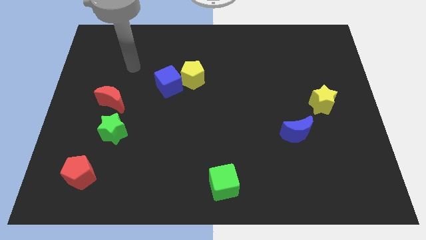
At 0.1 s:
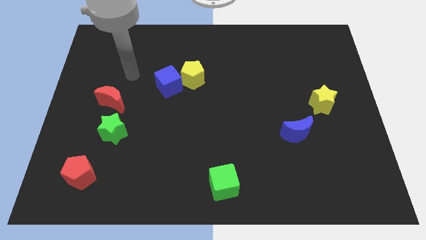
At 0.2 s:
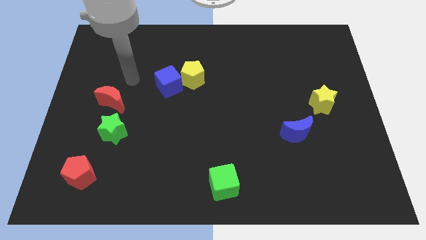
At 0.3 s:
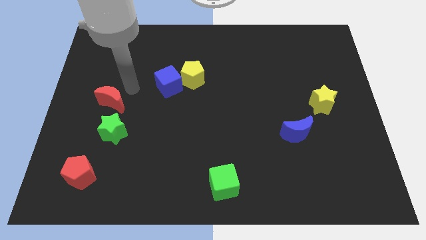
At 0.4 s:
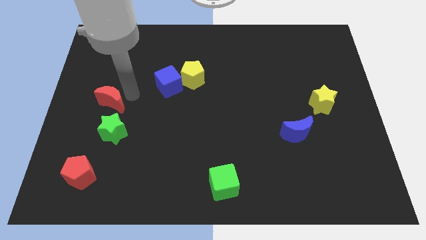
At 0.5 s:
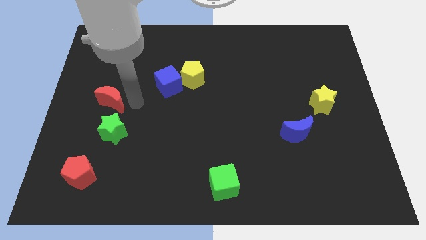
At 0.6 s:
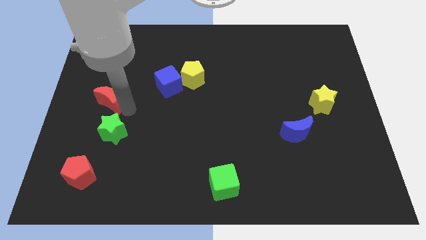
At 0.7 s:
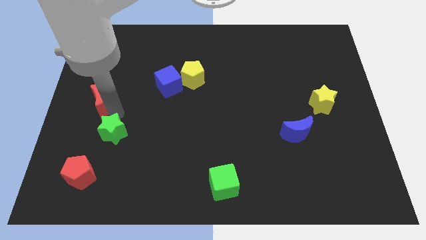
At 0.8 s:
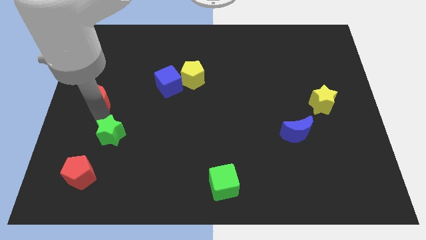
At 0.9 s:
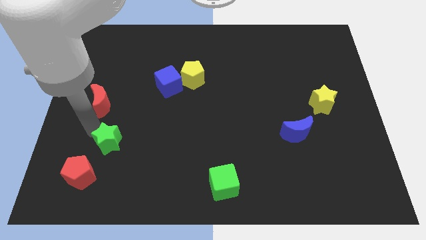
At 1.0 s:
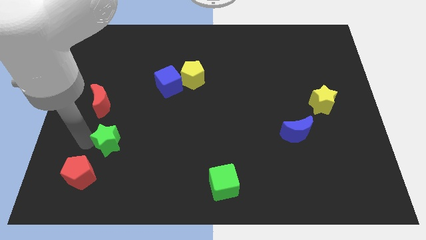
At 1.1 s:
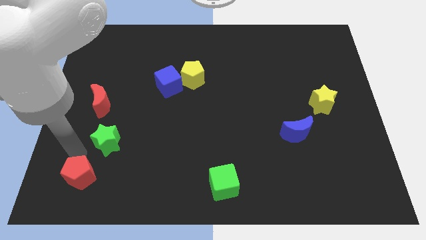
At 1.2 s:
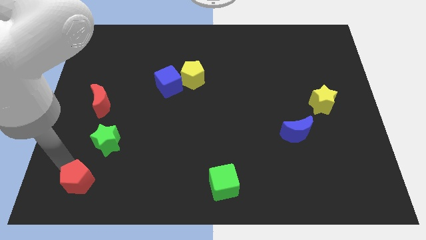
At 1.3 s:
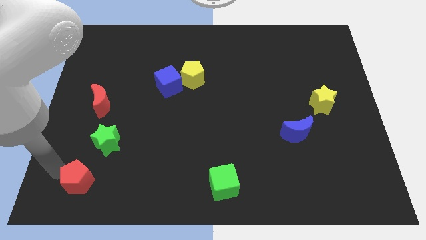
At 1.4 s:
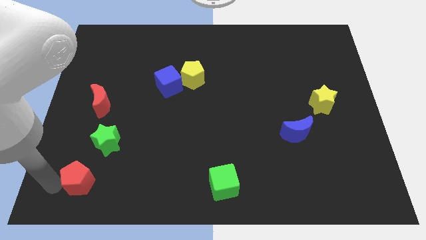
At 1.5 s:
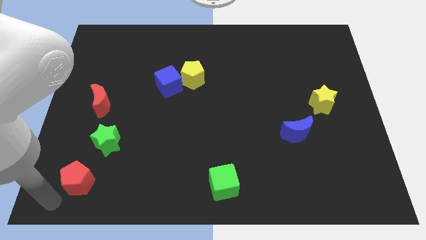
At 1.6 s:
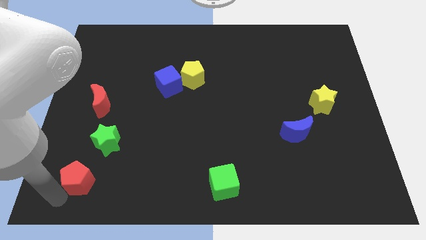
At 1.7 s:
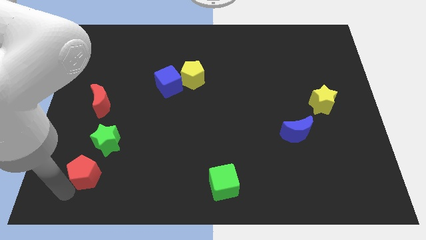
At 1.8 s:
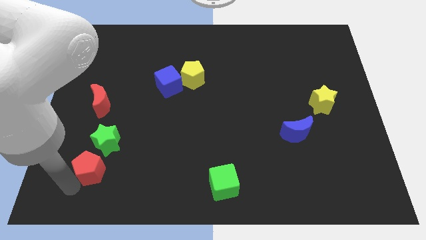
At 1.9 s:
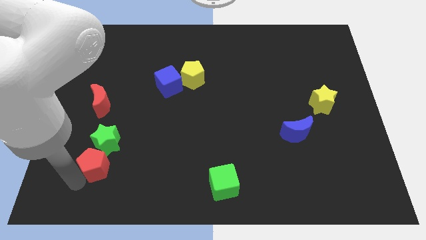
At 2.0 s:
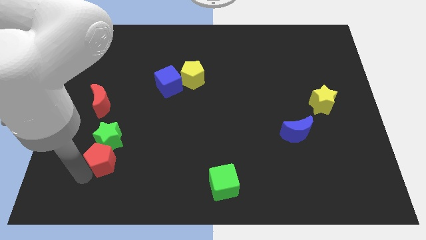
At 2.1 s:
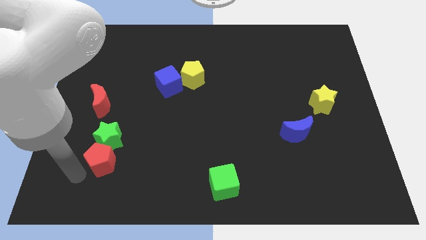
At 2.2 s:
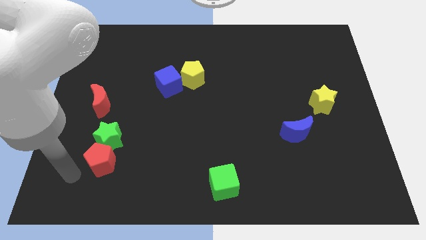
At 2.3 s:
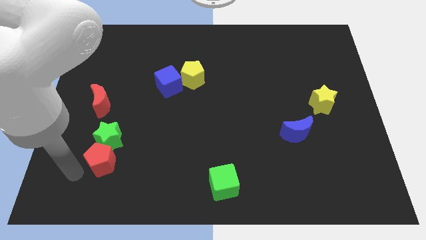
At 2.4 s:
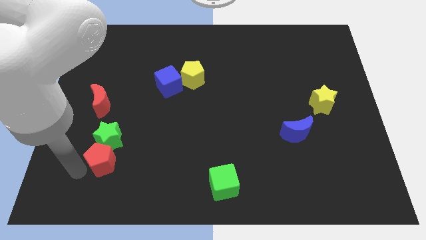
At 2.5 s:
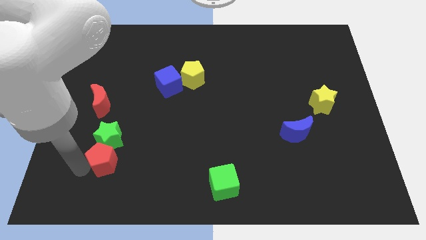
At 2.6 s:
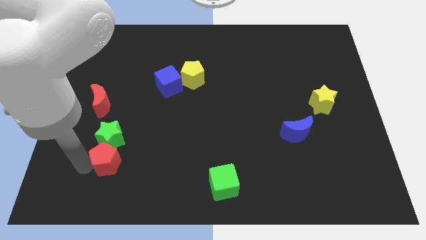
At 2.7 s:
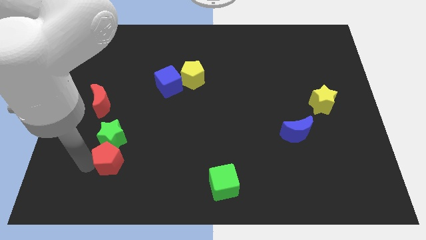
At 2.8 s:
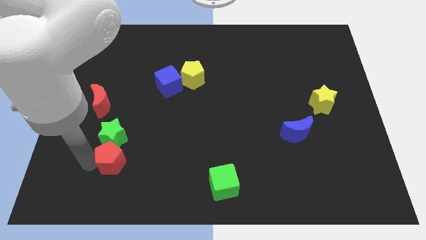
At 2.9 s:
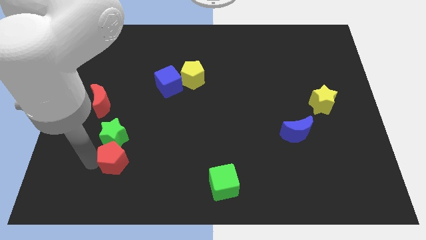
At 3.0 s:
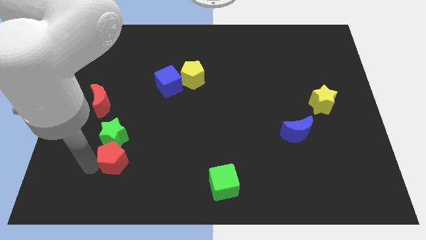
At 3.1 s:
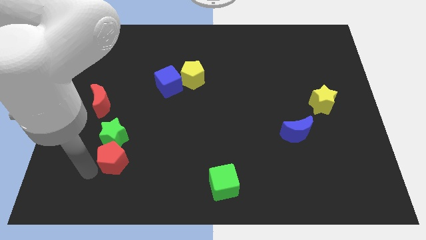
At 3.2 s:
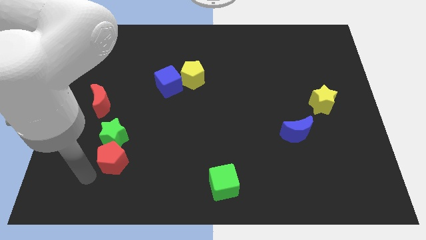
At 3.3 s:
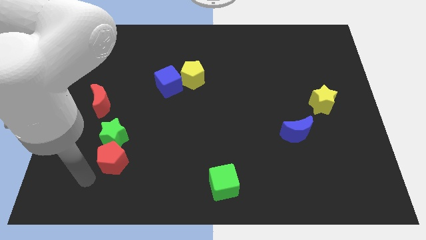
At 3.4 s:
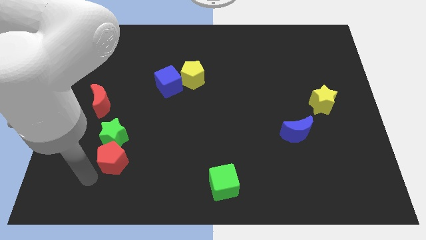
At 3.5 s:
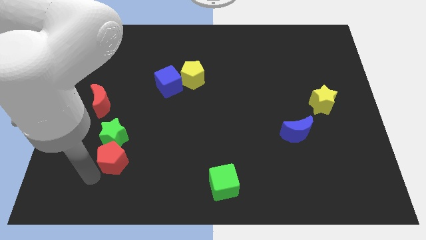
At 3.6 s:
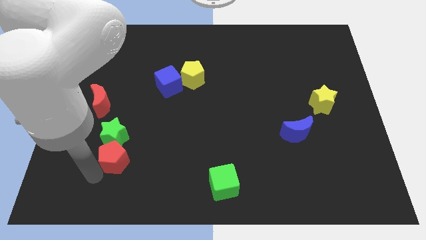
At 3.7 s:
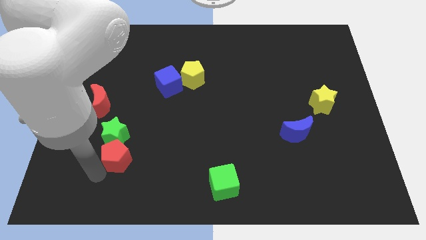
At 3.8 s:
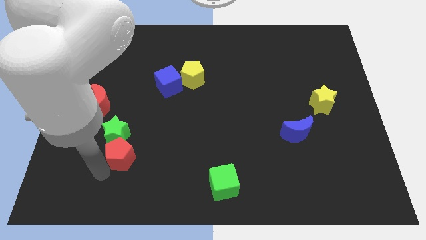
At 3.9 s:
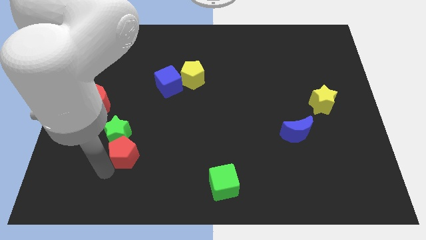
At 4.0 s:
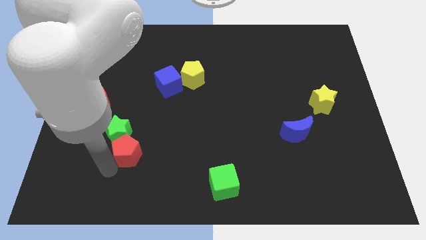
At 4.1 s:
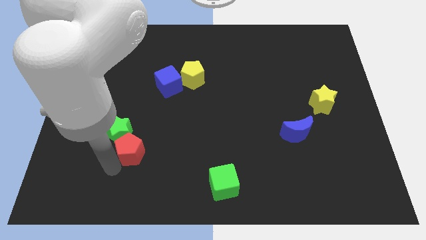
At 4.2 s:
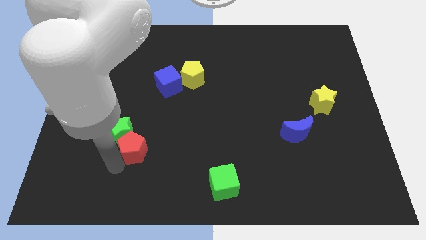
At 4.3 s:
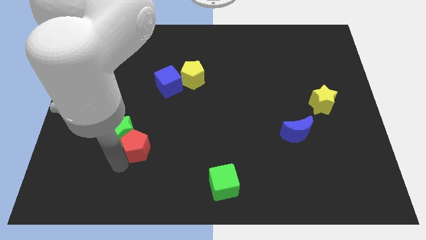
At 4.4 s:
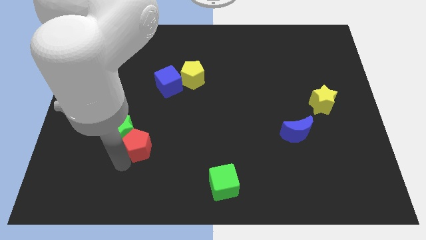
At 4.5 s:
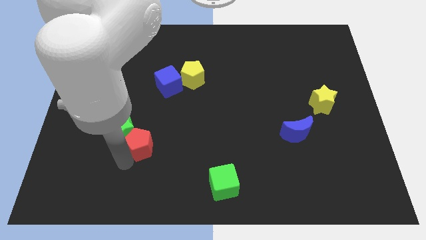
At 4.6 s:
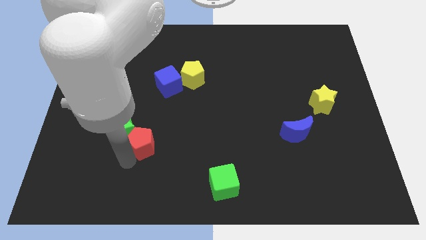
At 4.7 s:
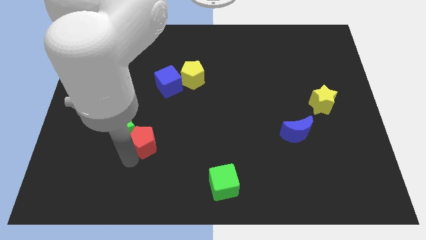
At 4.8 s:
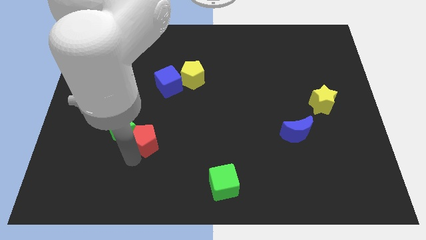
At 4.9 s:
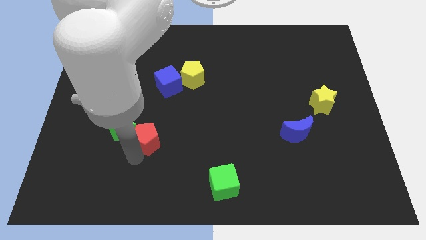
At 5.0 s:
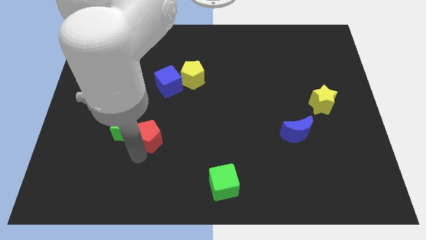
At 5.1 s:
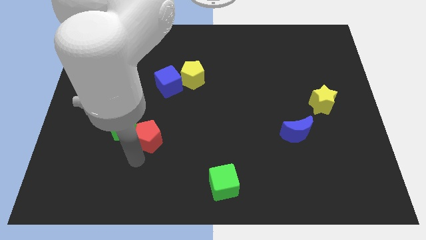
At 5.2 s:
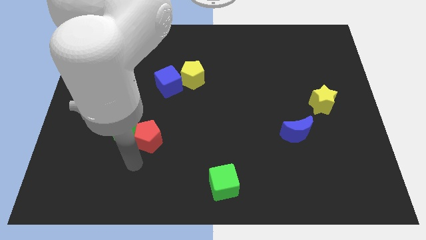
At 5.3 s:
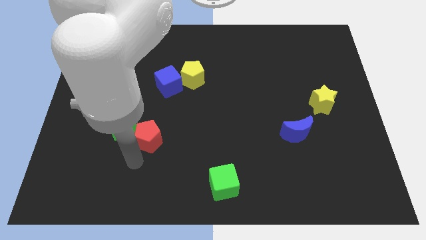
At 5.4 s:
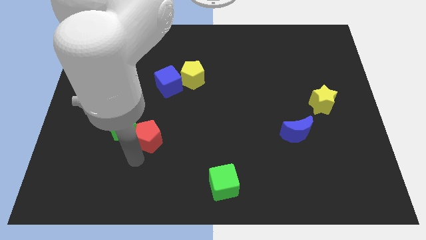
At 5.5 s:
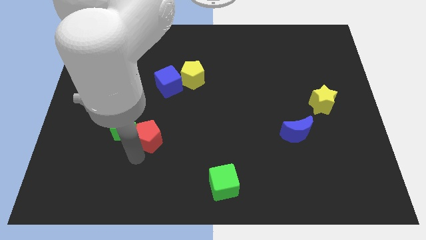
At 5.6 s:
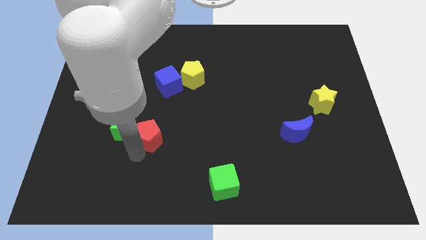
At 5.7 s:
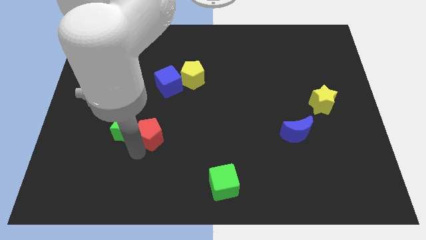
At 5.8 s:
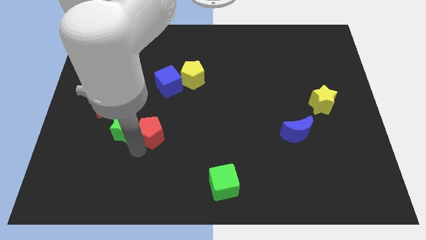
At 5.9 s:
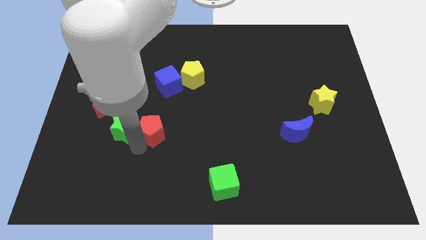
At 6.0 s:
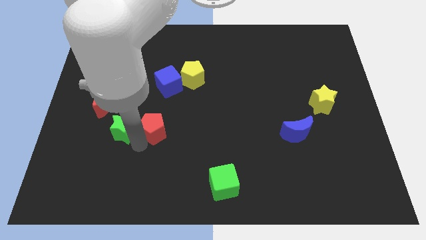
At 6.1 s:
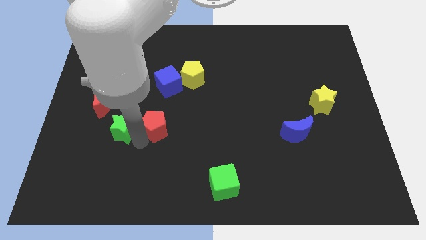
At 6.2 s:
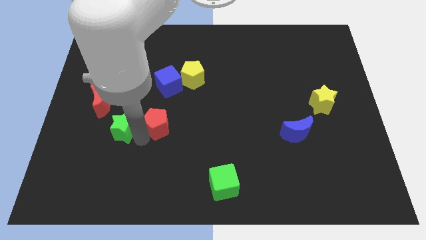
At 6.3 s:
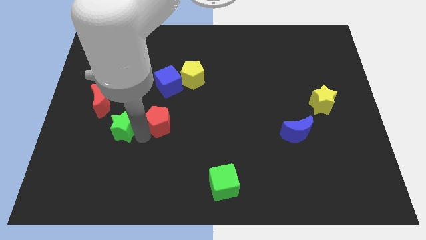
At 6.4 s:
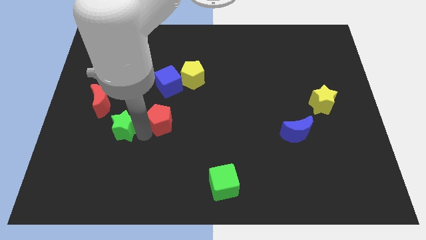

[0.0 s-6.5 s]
push the red pentagon upwards and to the right

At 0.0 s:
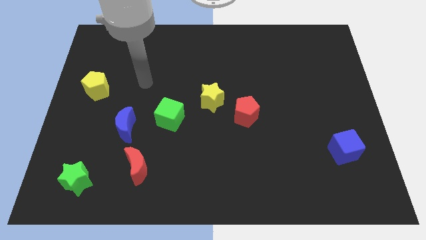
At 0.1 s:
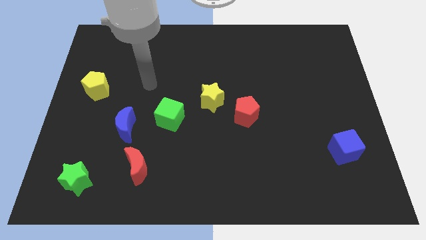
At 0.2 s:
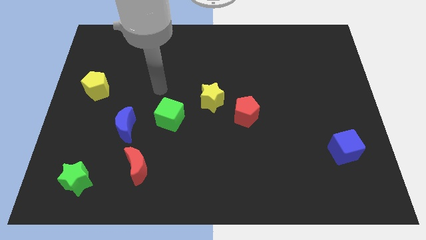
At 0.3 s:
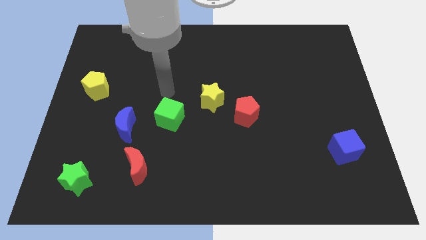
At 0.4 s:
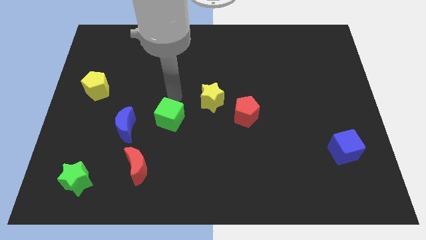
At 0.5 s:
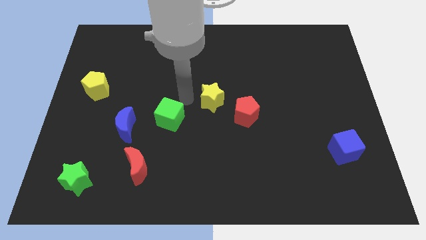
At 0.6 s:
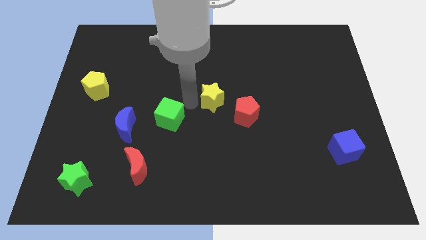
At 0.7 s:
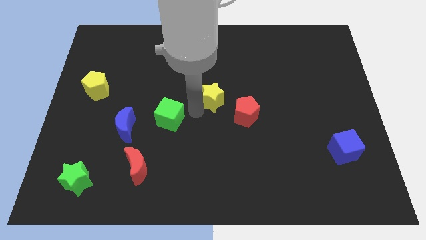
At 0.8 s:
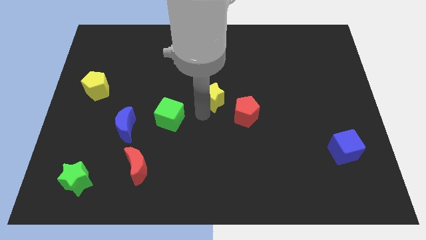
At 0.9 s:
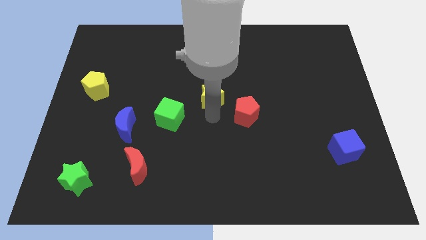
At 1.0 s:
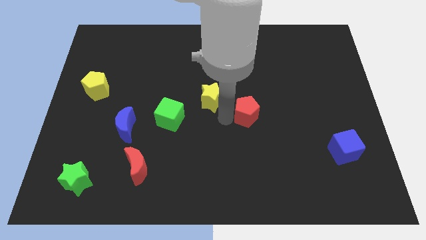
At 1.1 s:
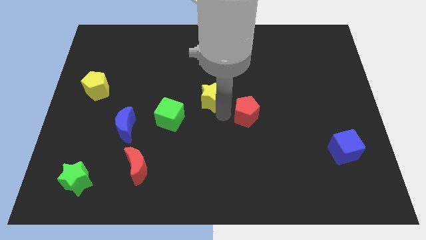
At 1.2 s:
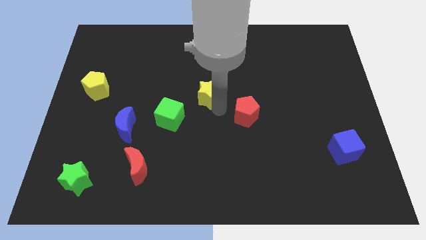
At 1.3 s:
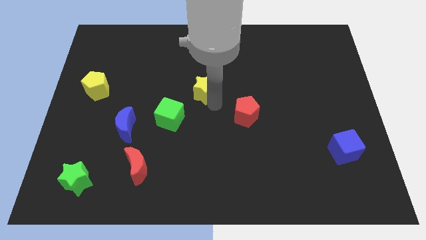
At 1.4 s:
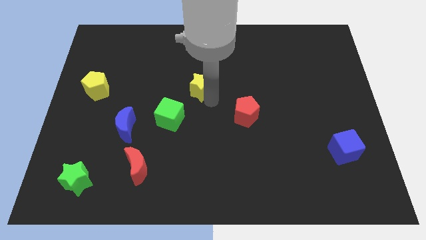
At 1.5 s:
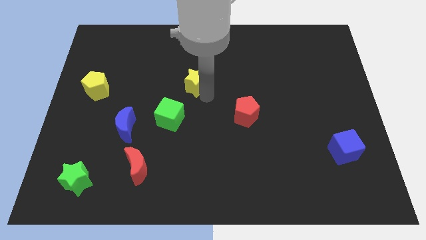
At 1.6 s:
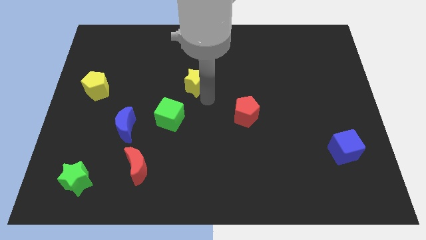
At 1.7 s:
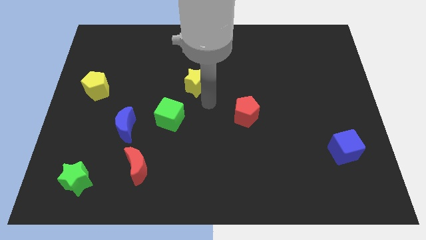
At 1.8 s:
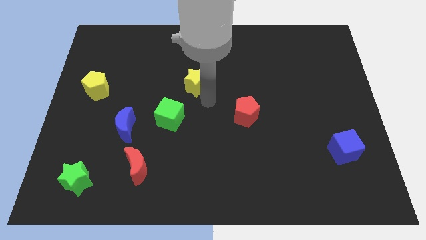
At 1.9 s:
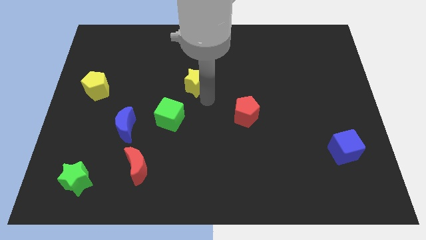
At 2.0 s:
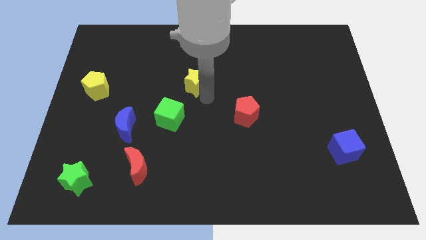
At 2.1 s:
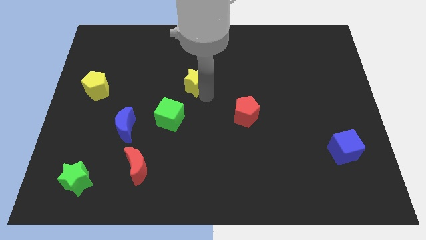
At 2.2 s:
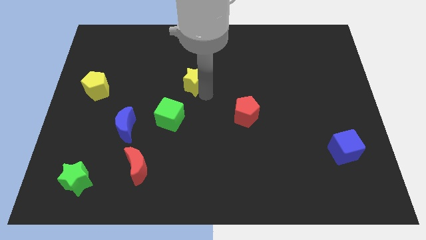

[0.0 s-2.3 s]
slightly push the yellow star up and to the left diagonally
